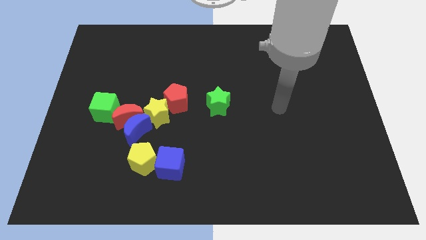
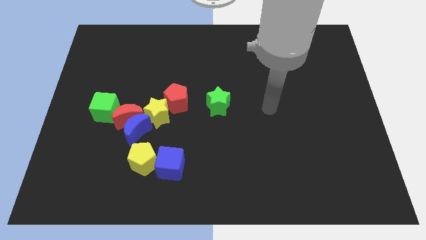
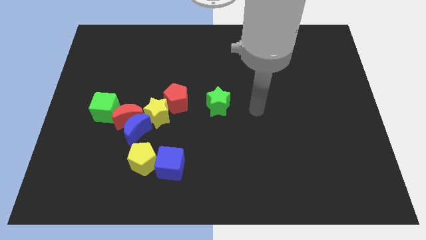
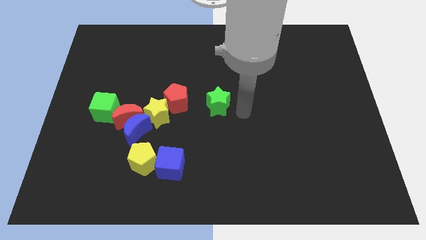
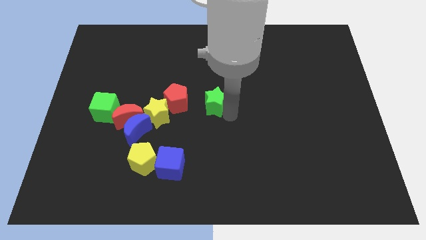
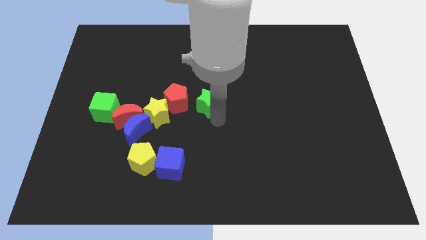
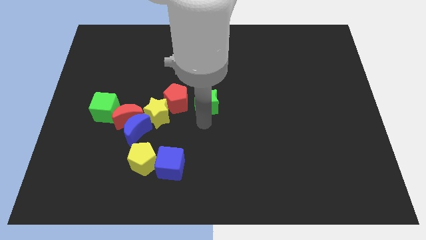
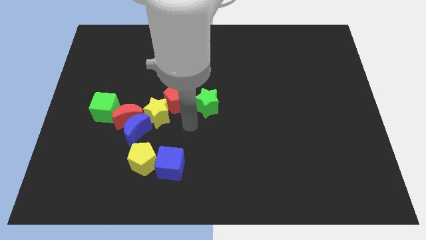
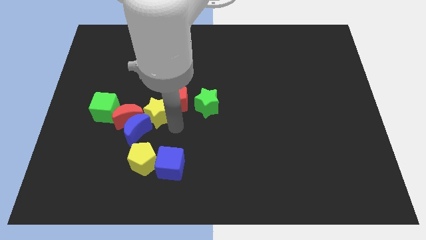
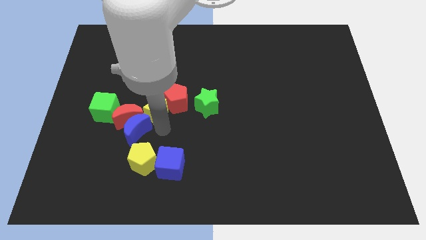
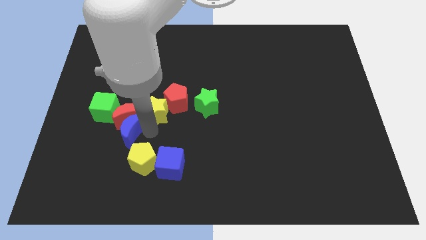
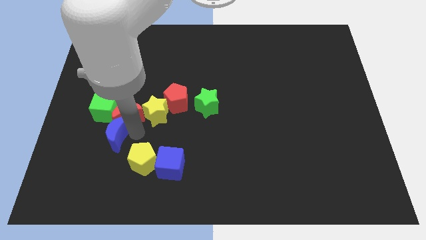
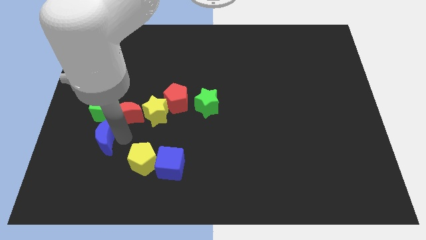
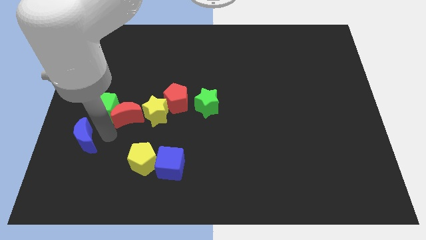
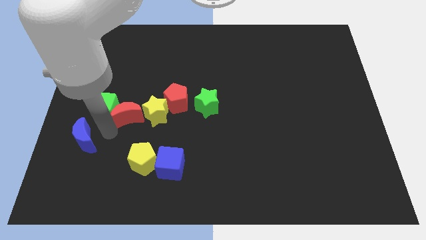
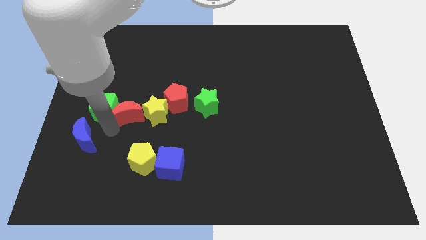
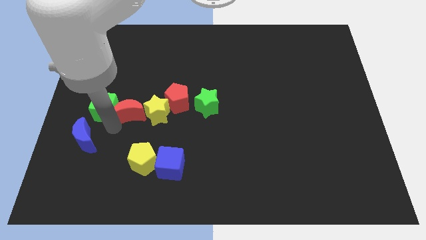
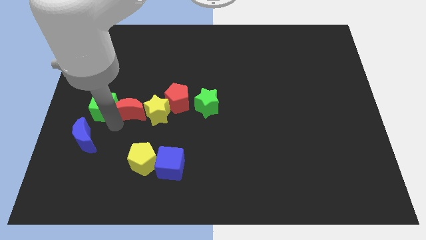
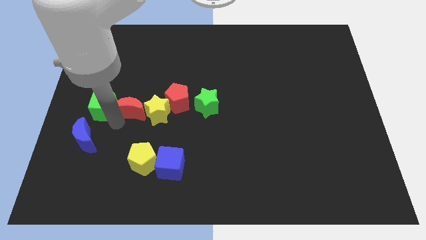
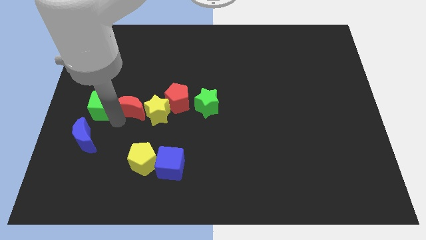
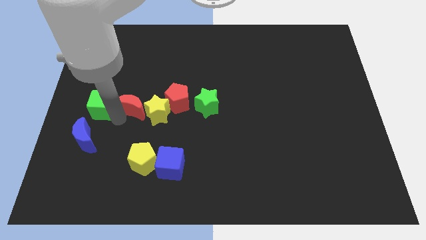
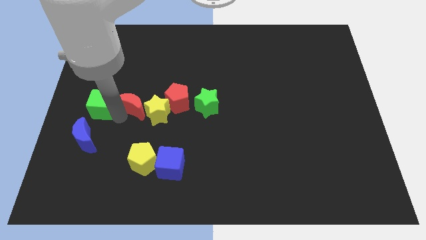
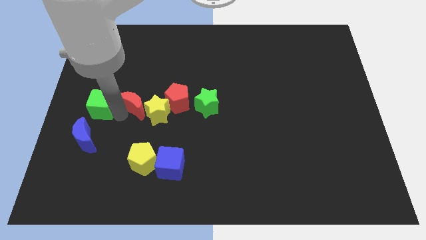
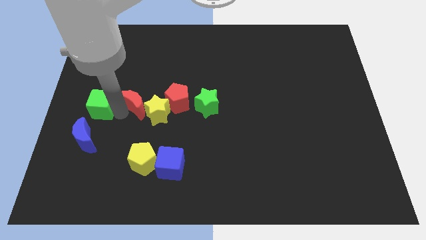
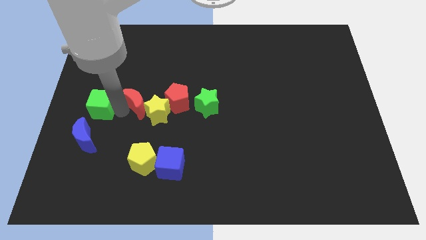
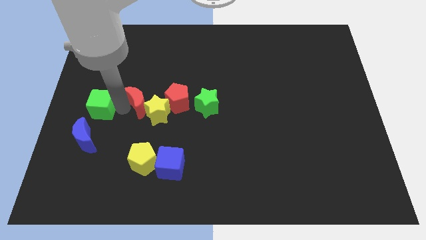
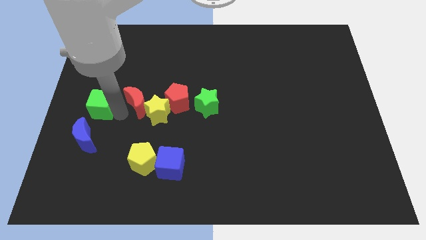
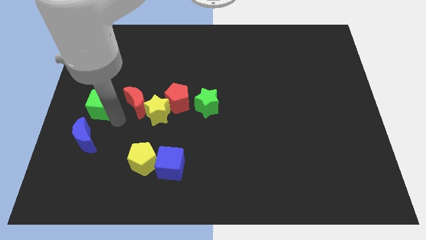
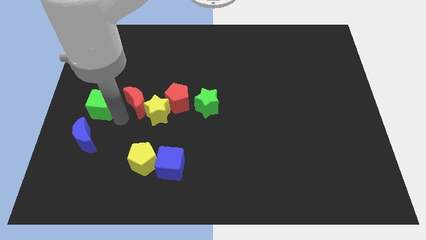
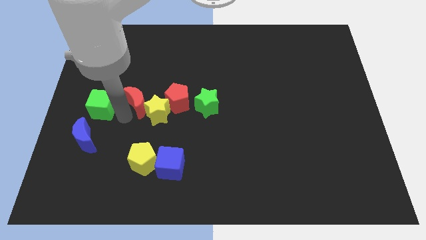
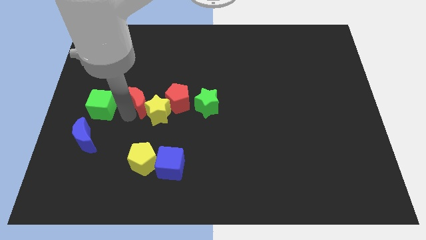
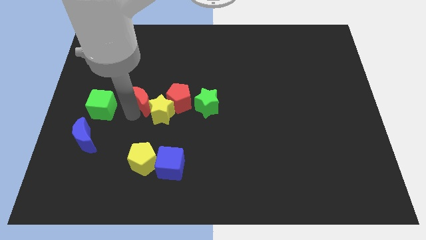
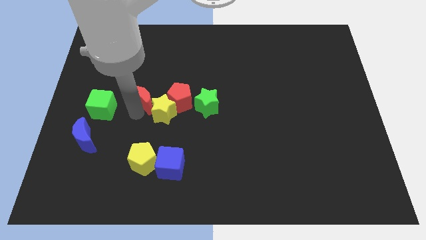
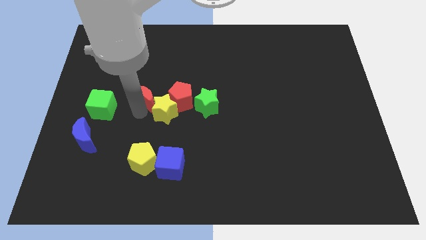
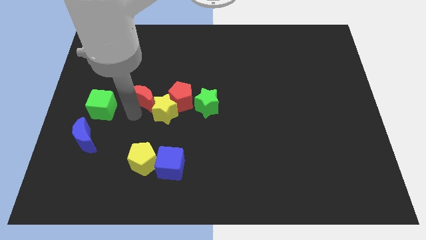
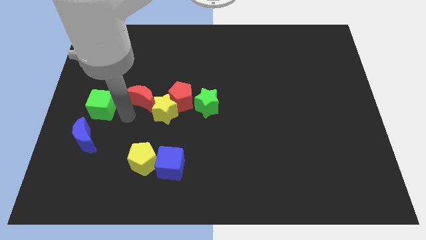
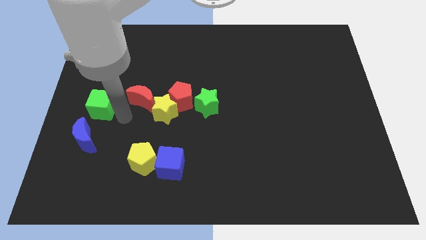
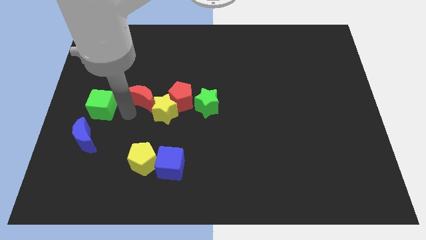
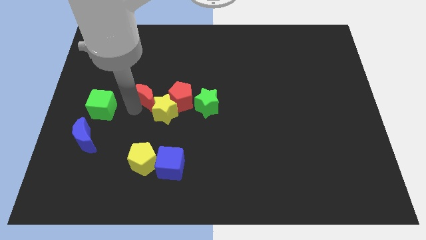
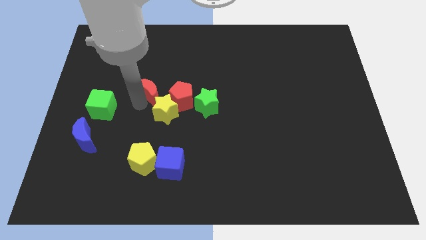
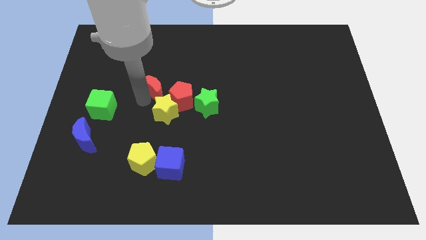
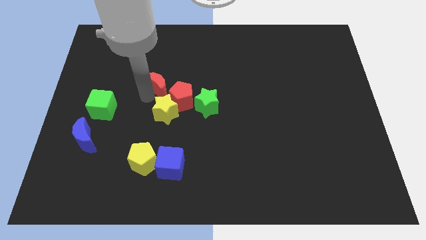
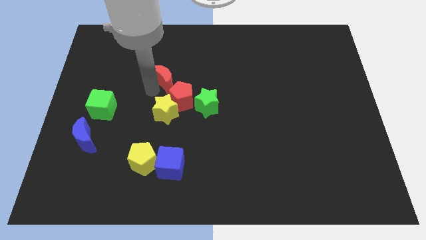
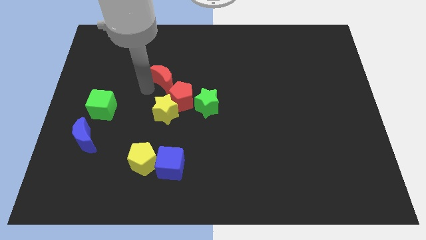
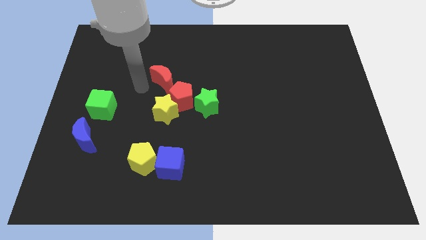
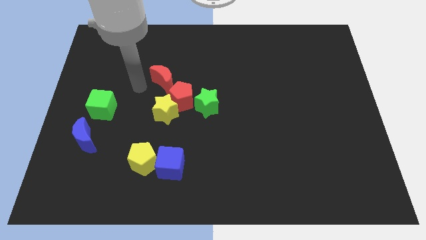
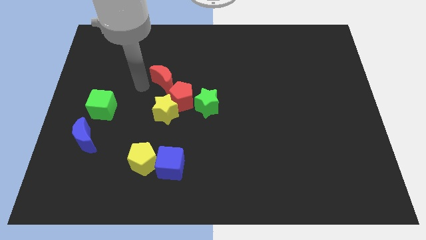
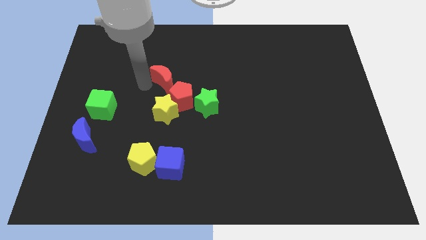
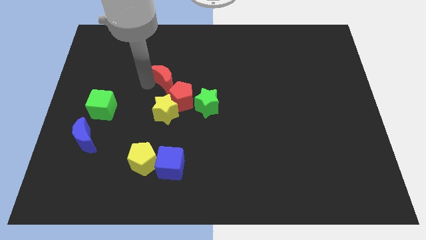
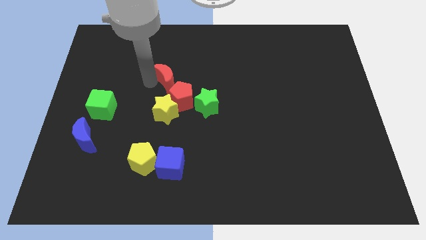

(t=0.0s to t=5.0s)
put the red moon to the top left side of the green star

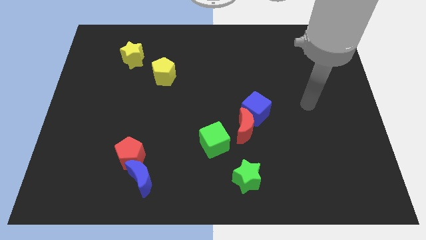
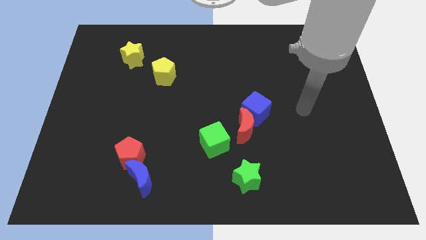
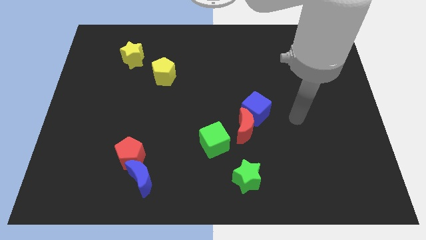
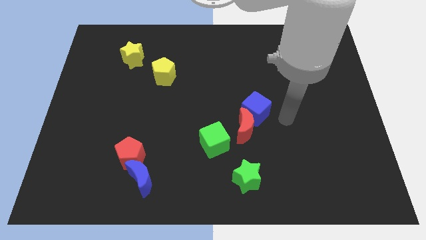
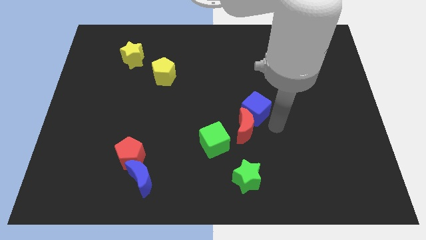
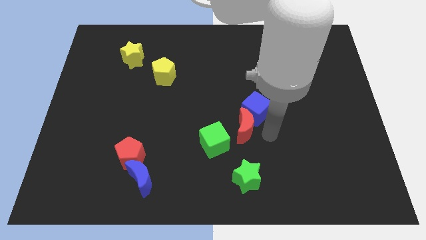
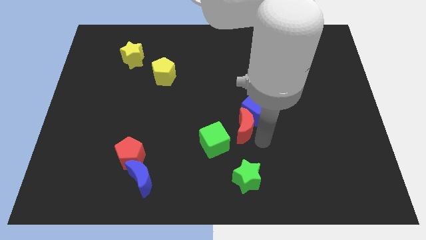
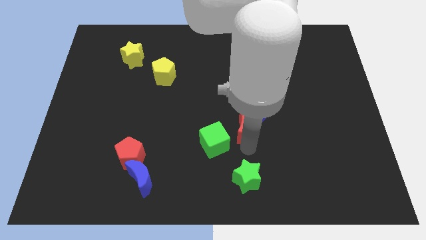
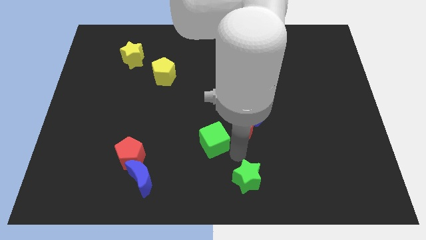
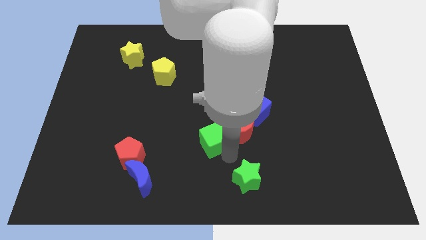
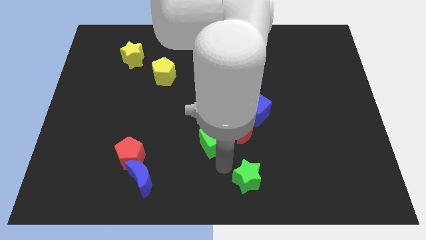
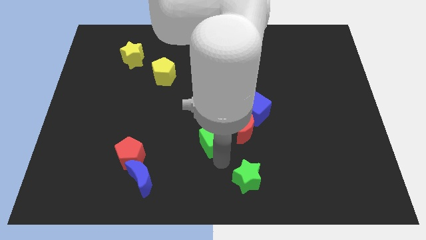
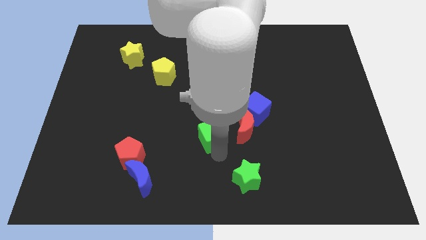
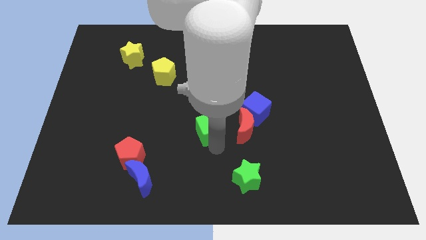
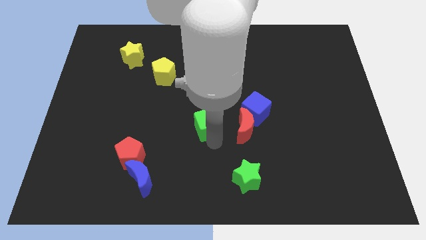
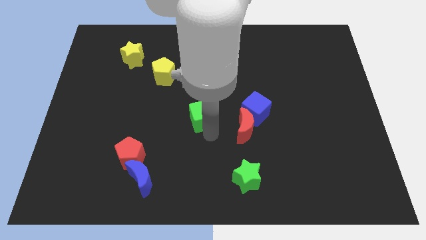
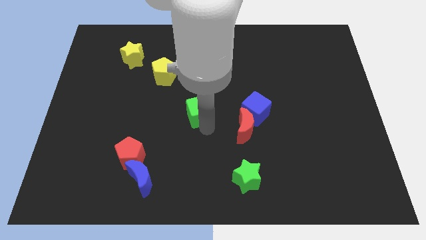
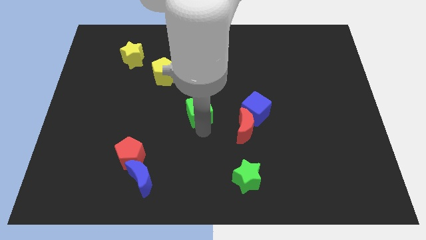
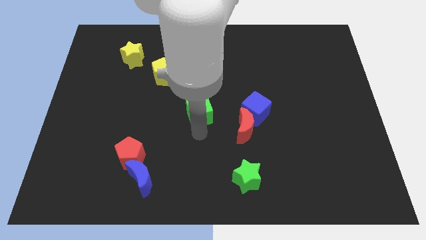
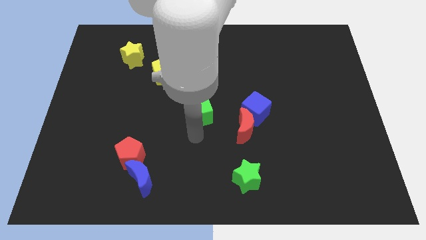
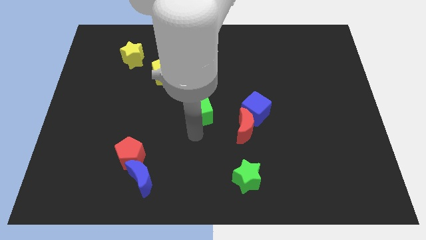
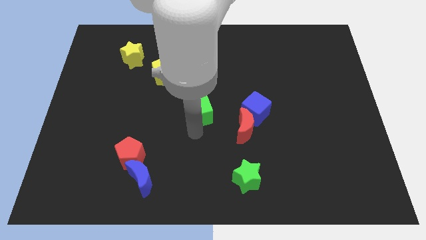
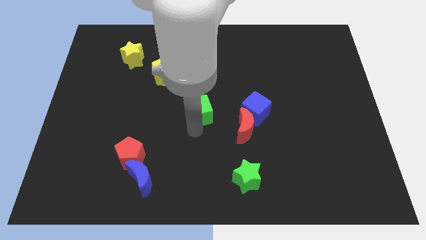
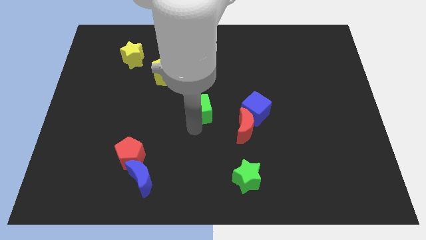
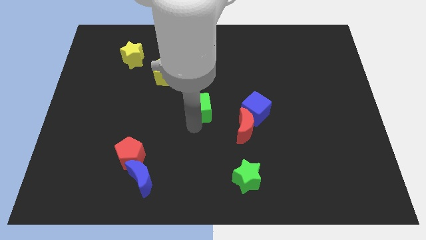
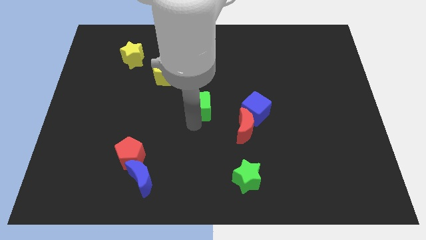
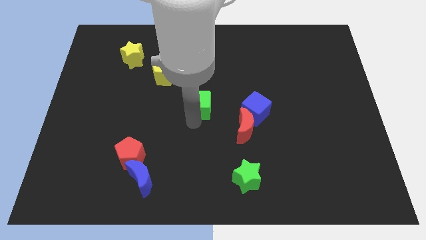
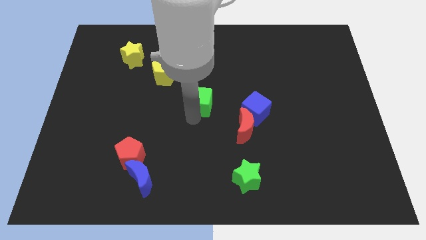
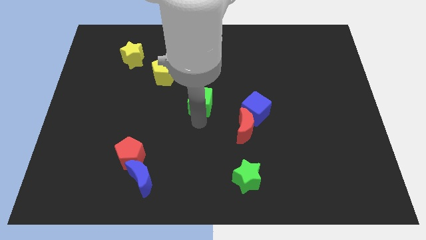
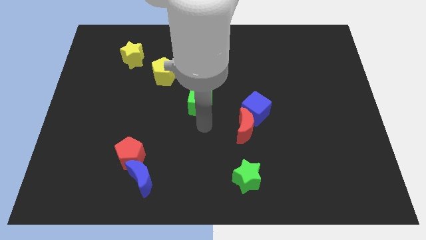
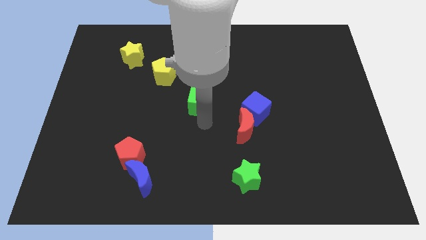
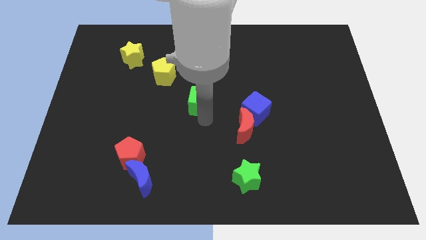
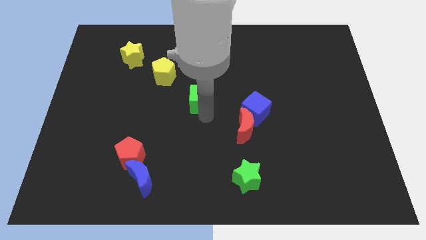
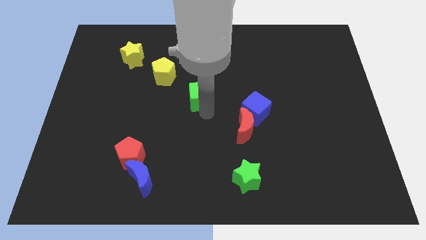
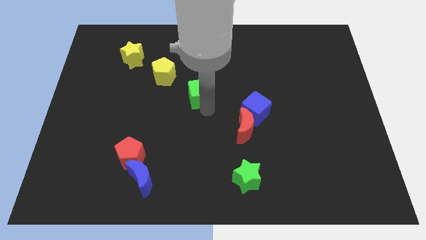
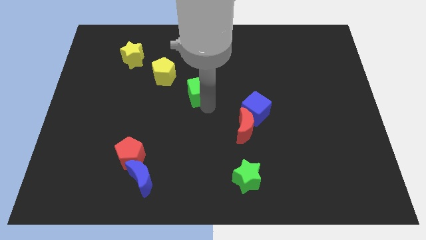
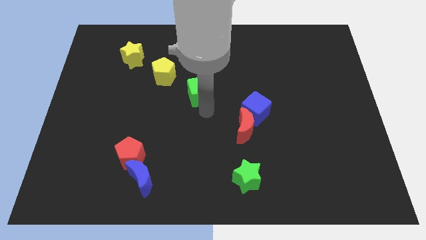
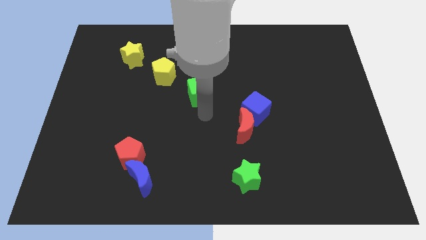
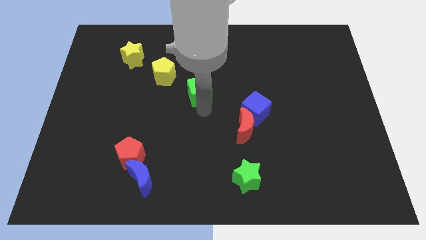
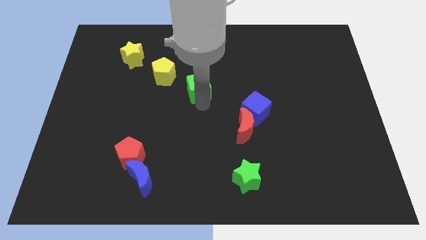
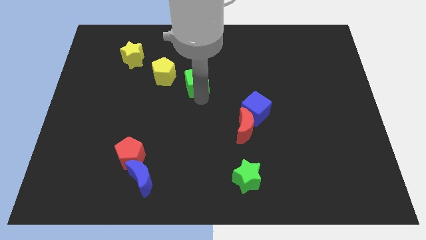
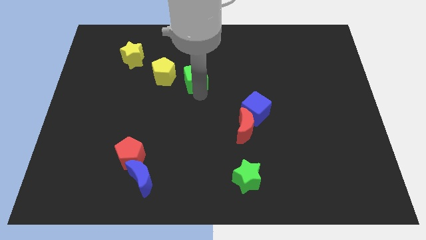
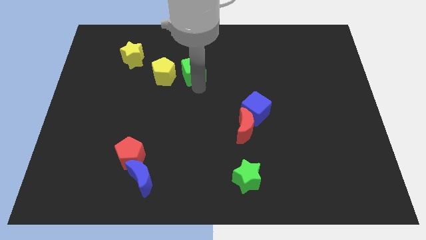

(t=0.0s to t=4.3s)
put the green cube diagonally up and to the right of the yellow pentagon
